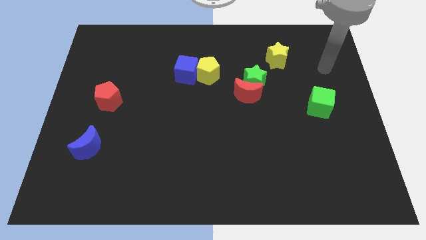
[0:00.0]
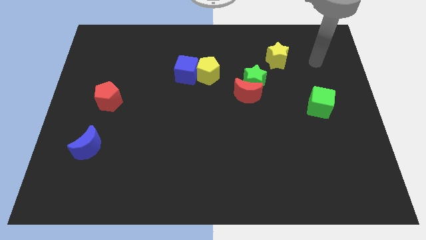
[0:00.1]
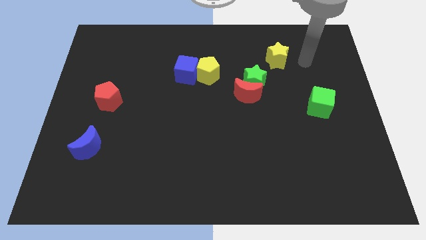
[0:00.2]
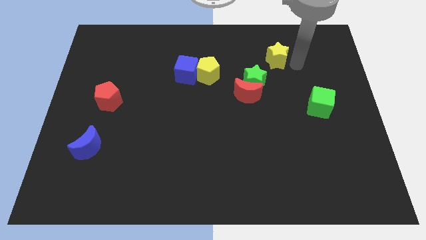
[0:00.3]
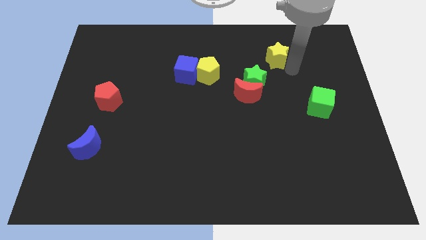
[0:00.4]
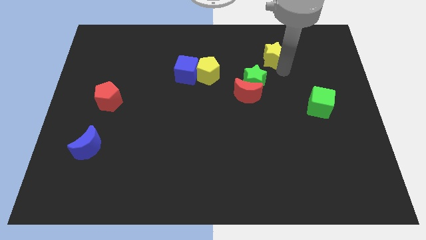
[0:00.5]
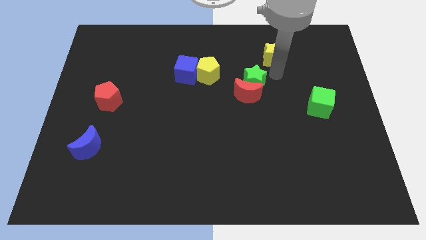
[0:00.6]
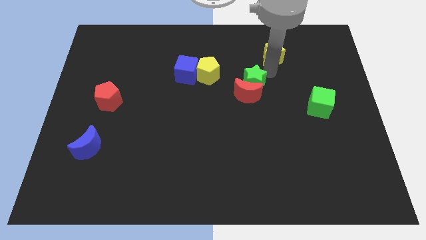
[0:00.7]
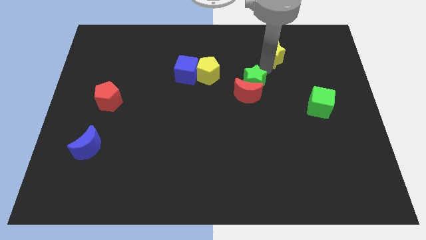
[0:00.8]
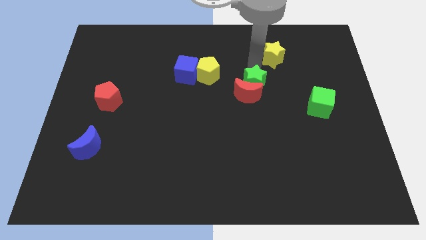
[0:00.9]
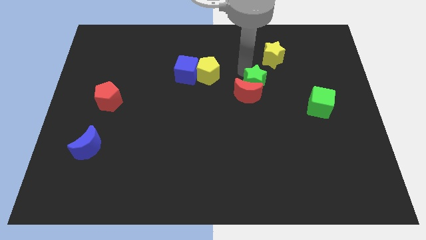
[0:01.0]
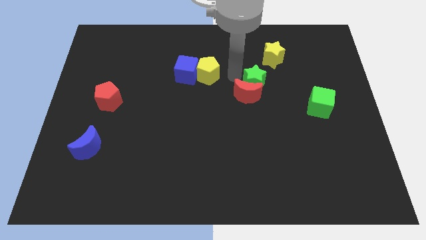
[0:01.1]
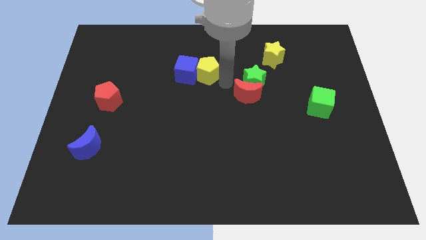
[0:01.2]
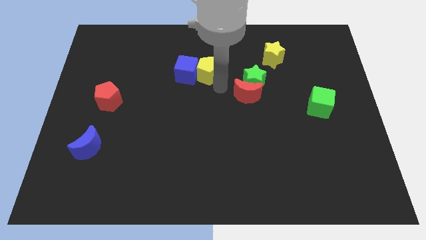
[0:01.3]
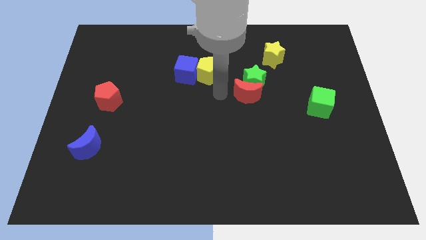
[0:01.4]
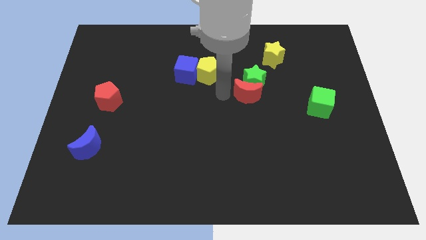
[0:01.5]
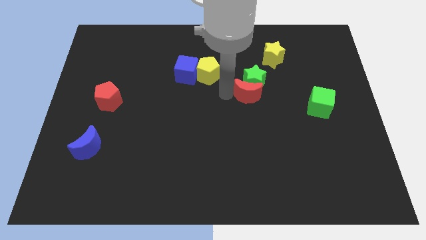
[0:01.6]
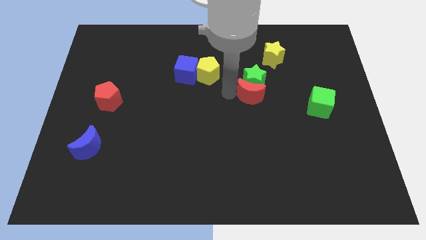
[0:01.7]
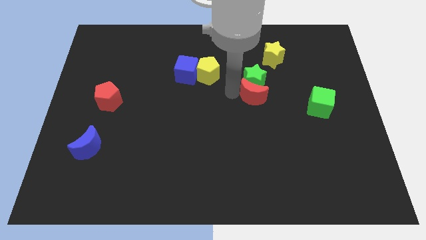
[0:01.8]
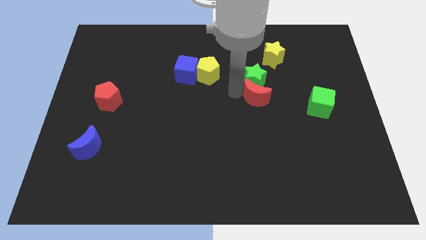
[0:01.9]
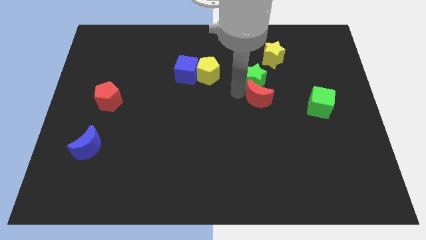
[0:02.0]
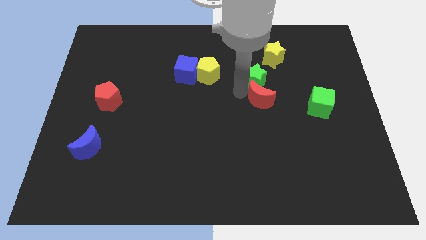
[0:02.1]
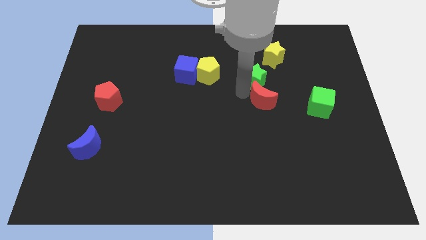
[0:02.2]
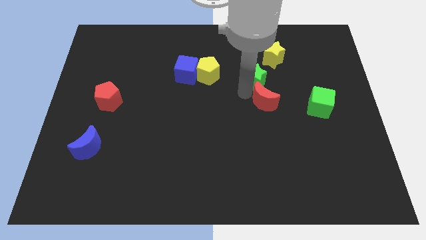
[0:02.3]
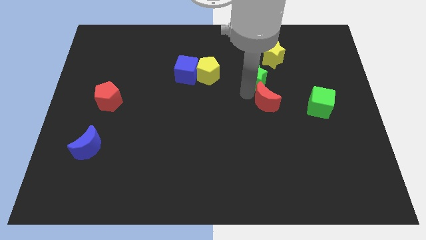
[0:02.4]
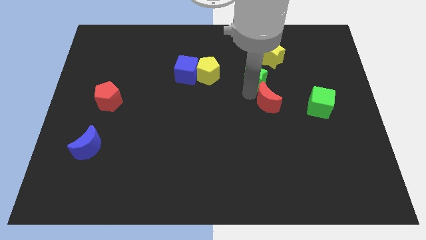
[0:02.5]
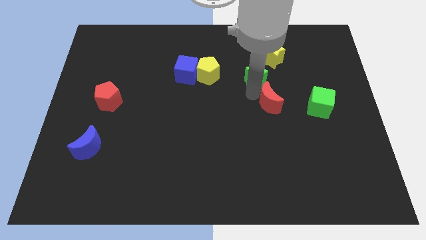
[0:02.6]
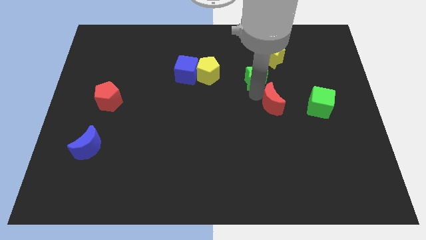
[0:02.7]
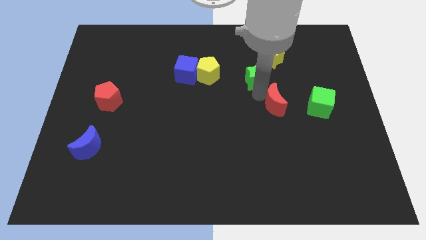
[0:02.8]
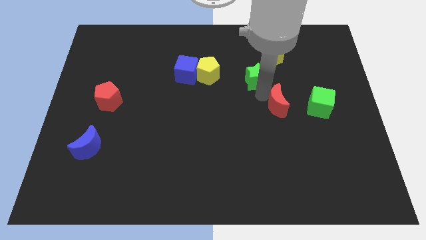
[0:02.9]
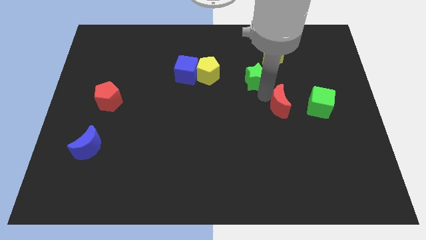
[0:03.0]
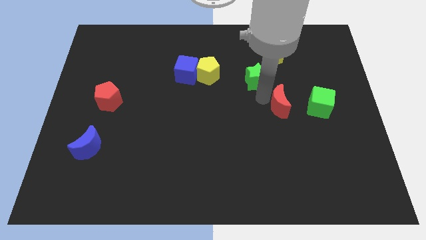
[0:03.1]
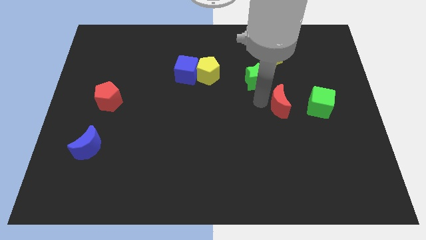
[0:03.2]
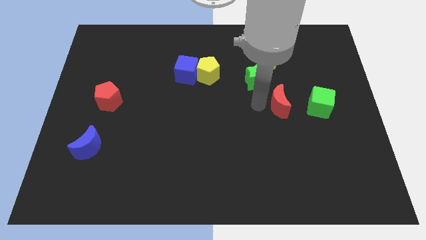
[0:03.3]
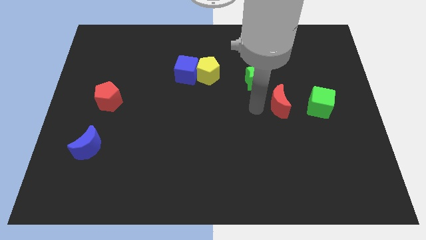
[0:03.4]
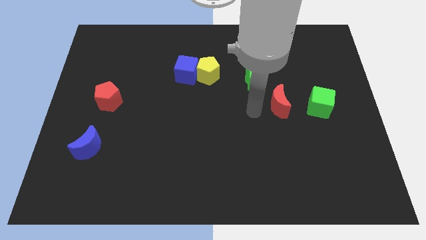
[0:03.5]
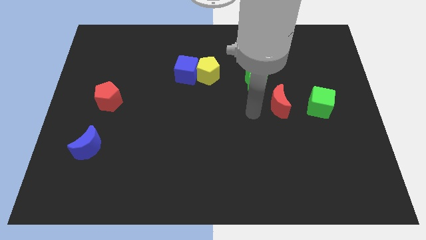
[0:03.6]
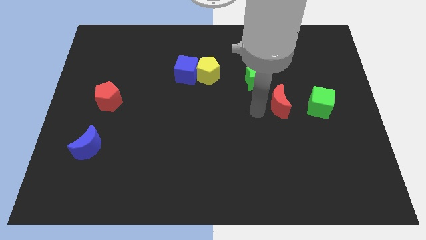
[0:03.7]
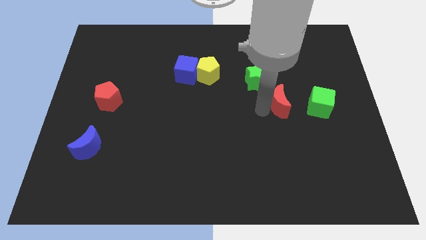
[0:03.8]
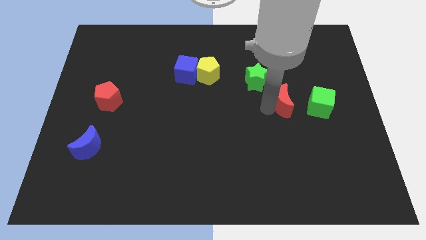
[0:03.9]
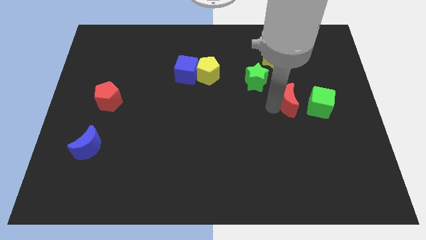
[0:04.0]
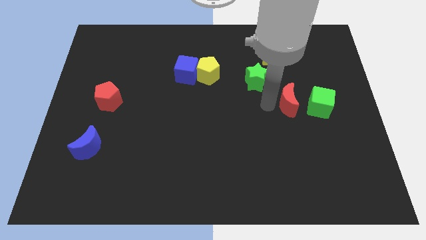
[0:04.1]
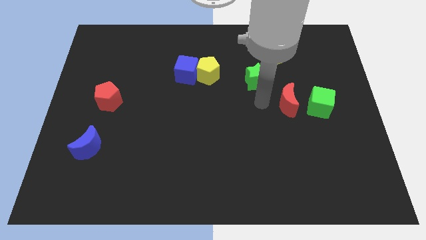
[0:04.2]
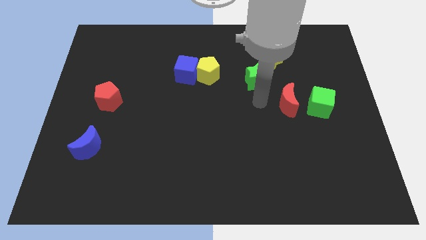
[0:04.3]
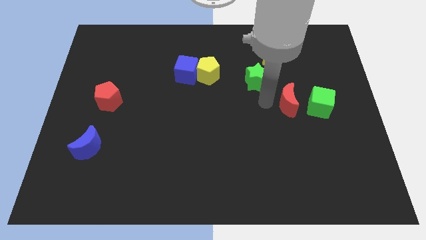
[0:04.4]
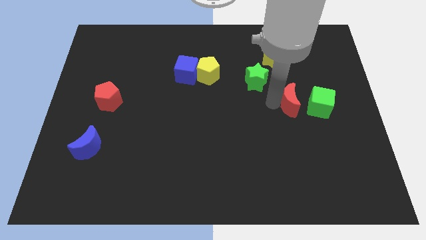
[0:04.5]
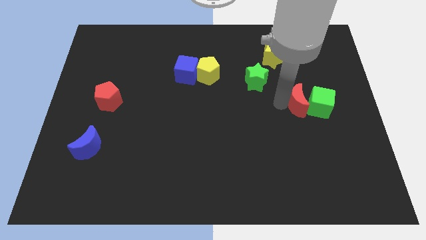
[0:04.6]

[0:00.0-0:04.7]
push the red moon close to the green cube

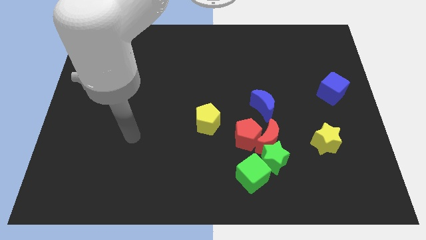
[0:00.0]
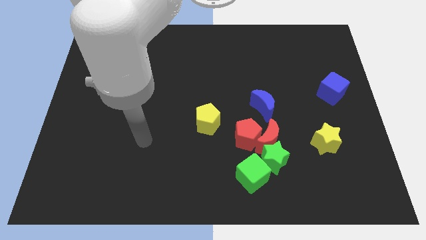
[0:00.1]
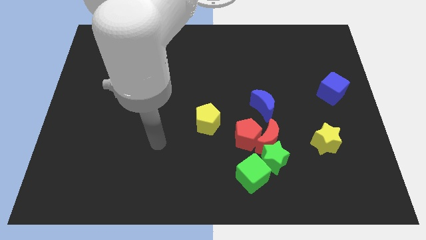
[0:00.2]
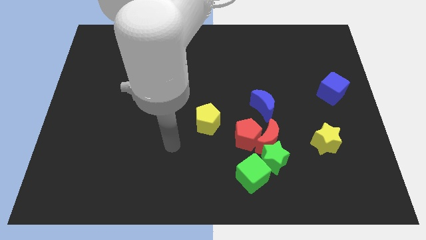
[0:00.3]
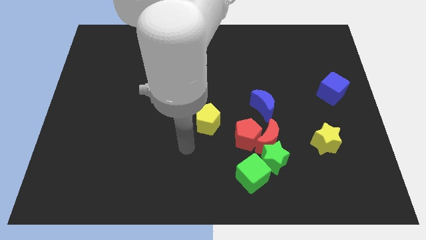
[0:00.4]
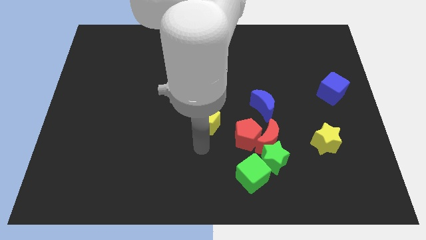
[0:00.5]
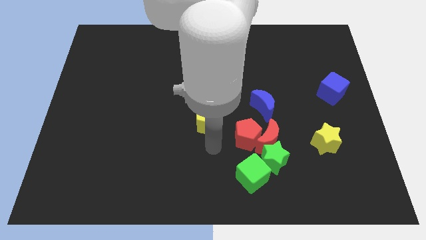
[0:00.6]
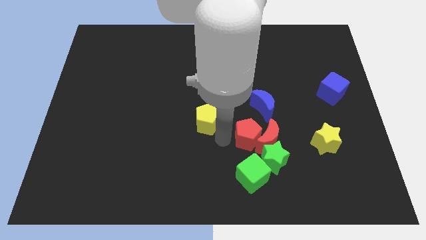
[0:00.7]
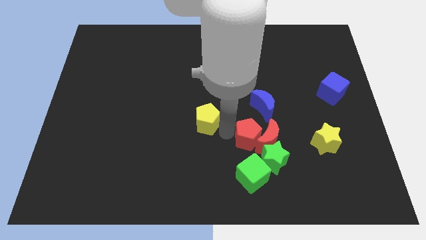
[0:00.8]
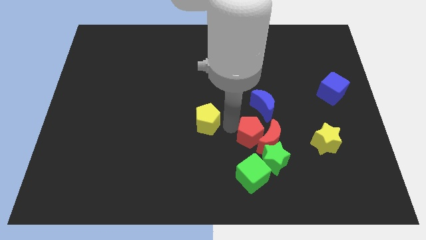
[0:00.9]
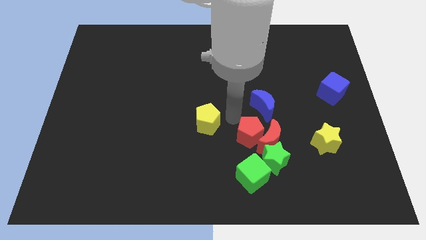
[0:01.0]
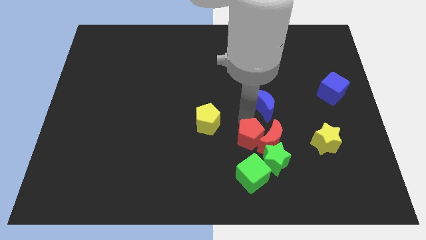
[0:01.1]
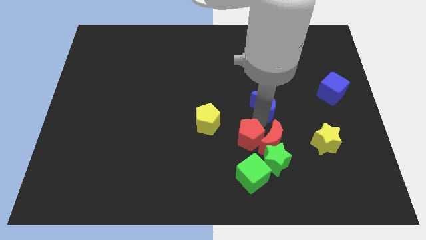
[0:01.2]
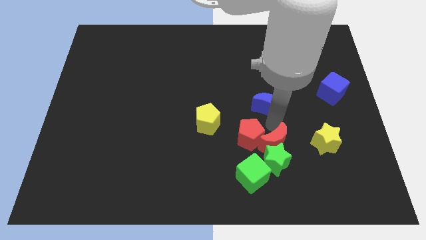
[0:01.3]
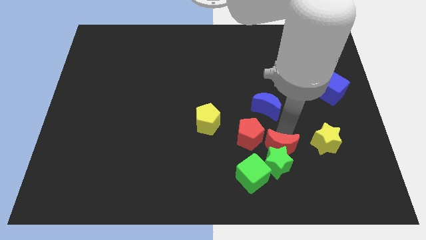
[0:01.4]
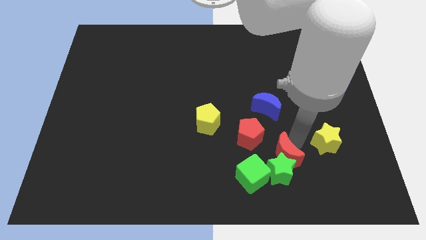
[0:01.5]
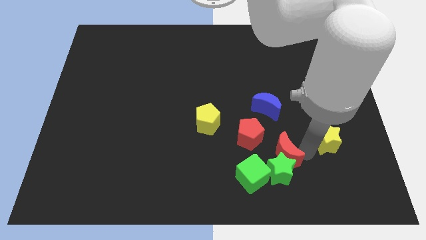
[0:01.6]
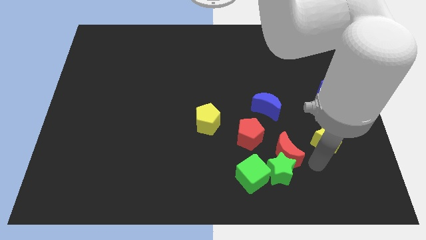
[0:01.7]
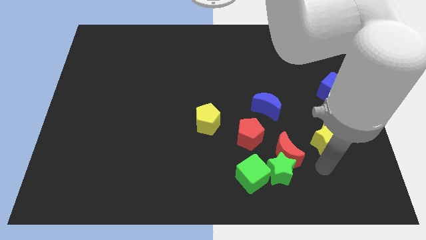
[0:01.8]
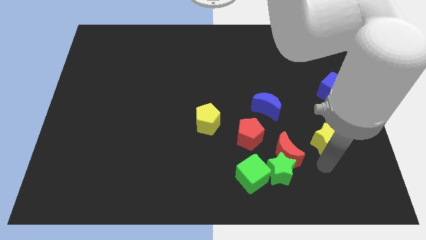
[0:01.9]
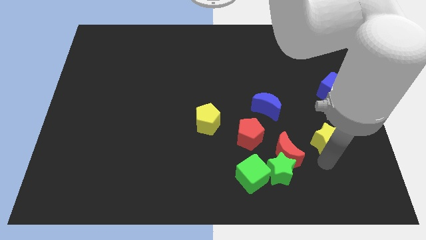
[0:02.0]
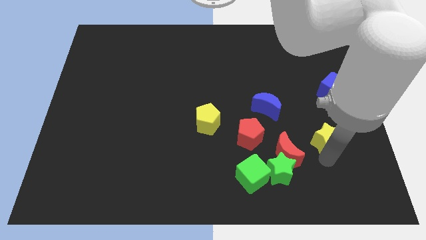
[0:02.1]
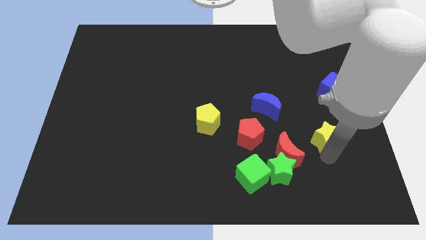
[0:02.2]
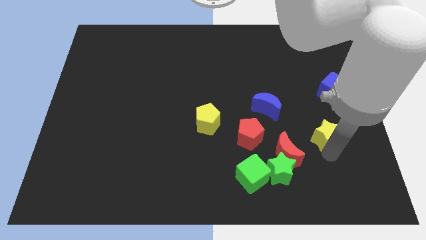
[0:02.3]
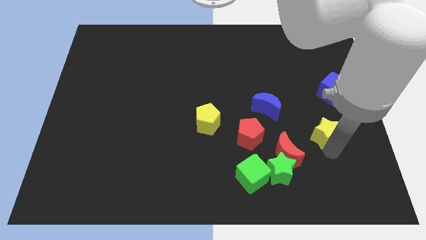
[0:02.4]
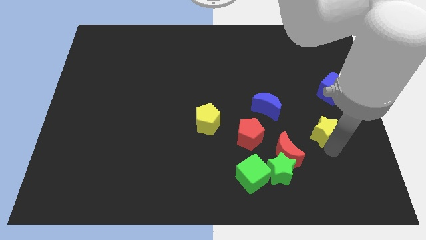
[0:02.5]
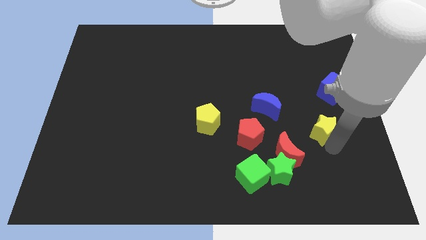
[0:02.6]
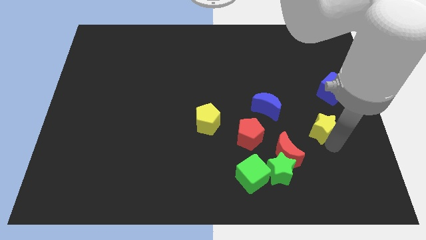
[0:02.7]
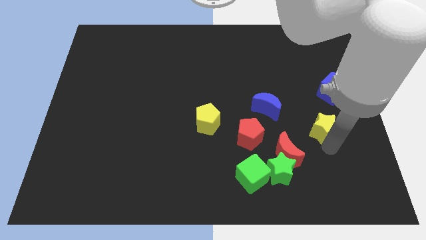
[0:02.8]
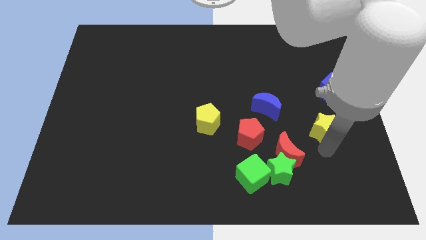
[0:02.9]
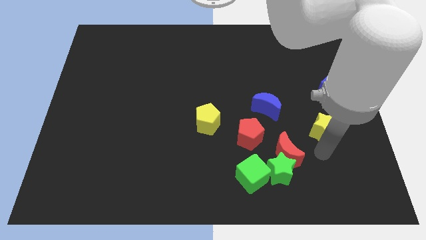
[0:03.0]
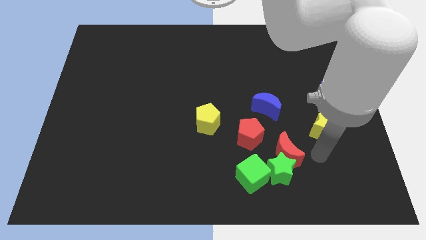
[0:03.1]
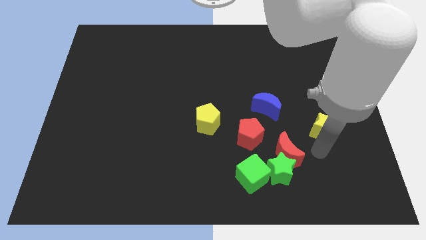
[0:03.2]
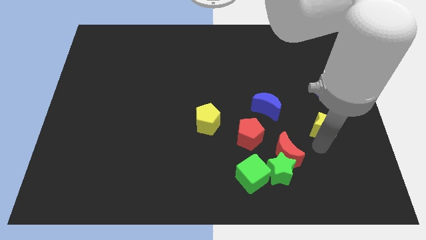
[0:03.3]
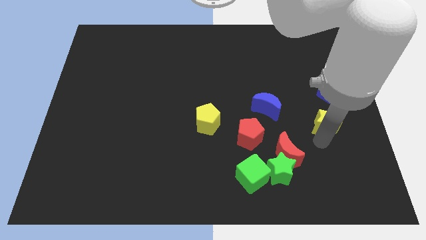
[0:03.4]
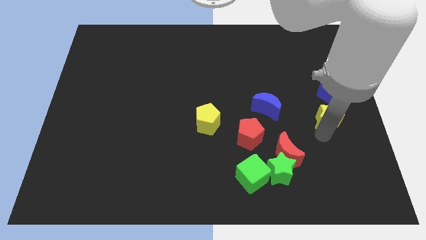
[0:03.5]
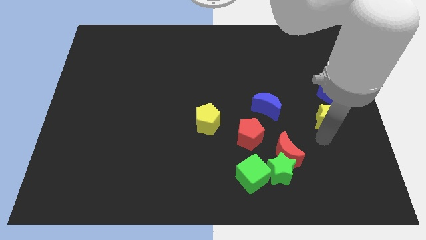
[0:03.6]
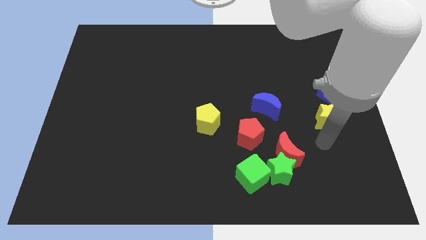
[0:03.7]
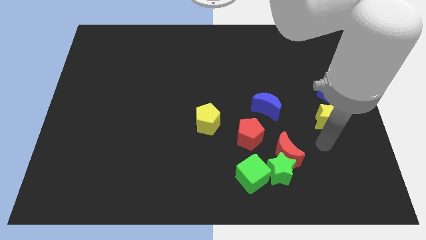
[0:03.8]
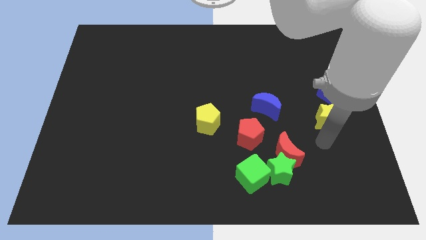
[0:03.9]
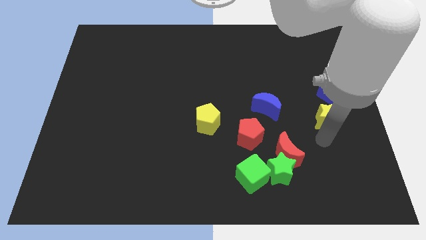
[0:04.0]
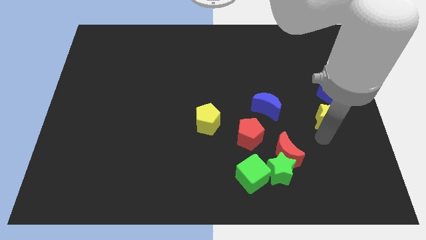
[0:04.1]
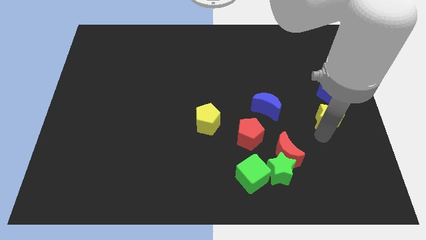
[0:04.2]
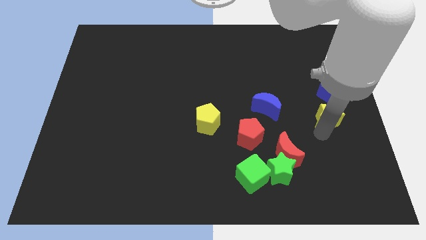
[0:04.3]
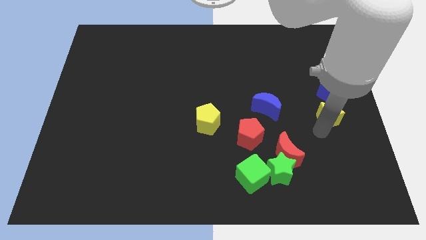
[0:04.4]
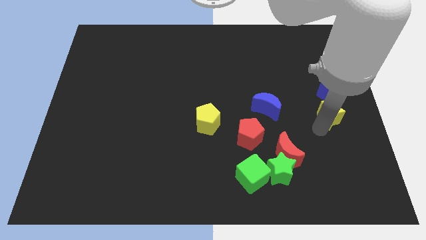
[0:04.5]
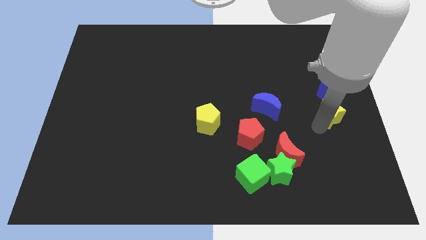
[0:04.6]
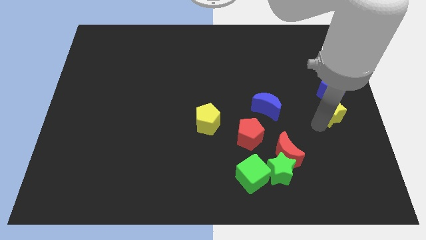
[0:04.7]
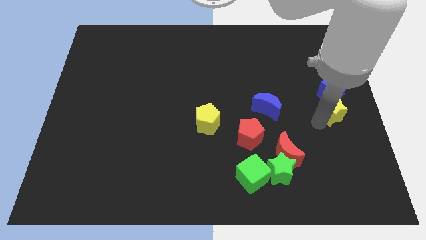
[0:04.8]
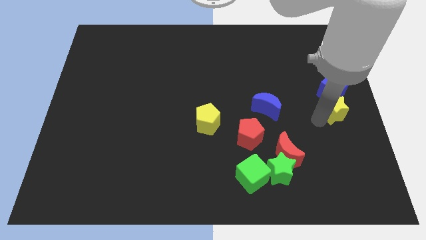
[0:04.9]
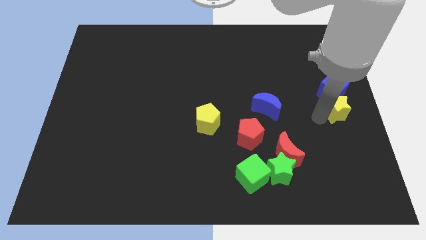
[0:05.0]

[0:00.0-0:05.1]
slide the yellow star next to the blue cube
